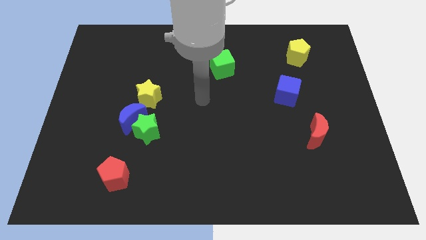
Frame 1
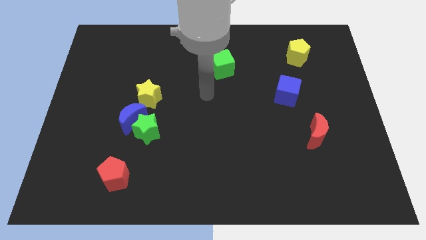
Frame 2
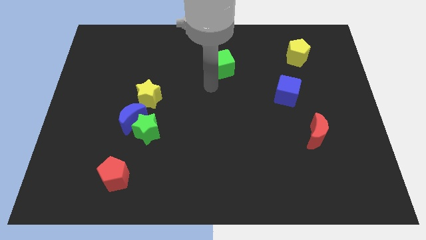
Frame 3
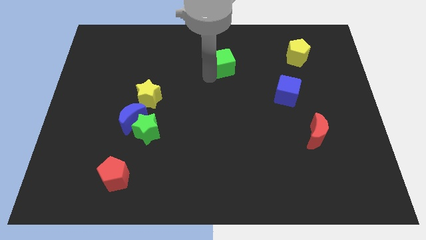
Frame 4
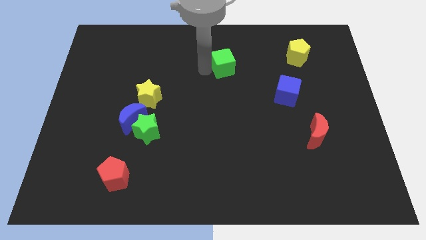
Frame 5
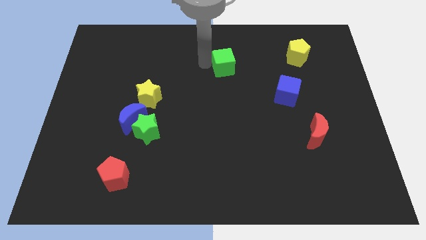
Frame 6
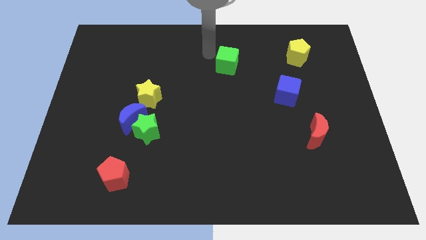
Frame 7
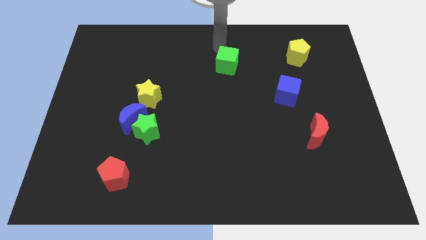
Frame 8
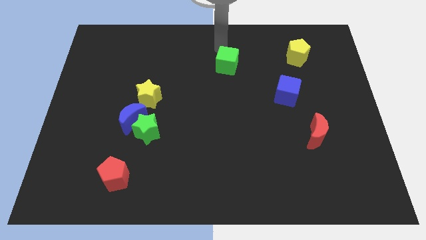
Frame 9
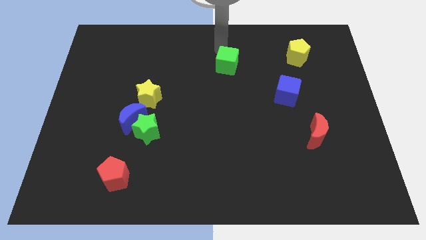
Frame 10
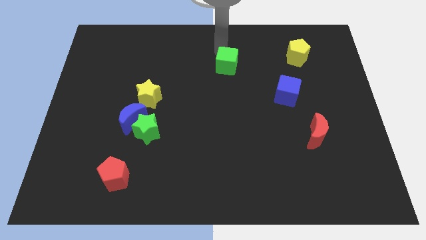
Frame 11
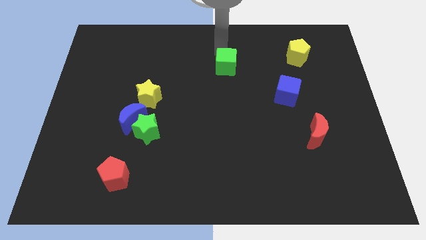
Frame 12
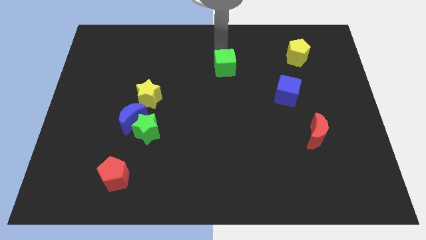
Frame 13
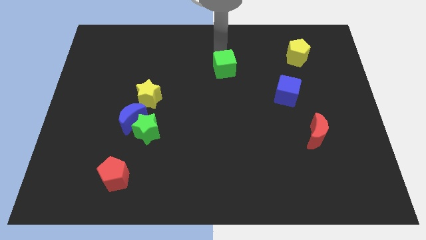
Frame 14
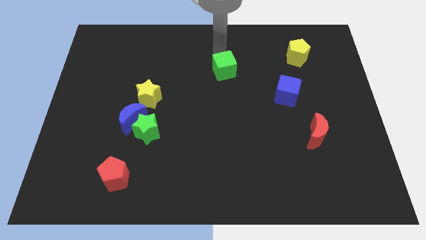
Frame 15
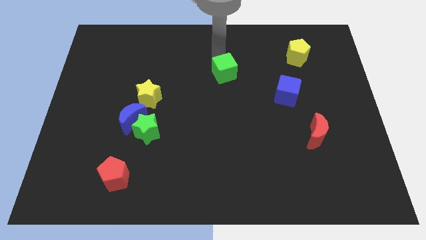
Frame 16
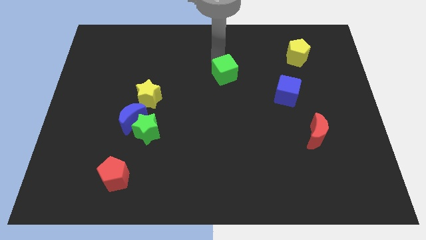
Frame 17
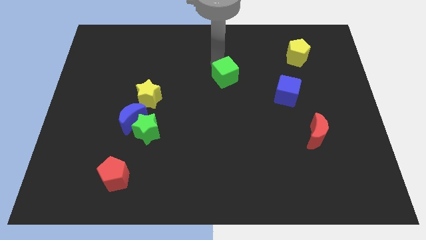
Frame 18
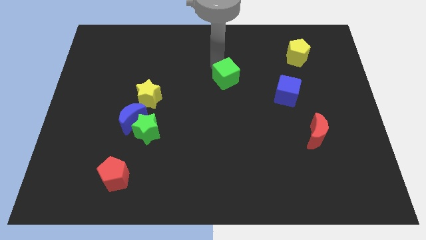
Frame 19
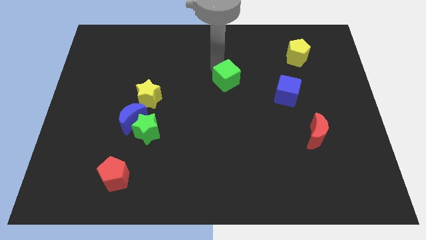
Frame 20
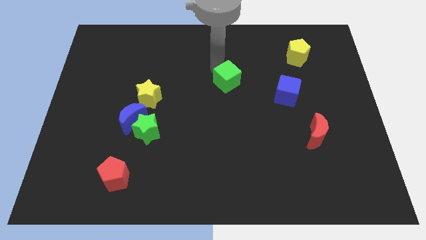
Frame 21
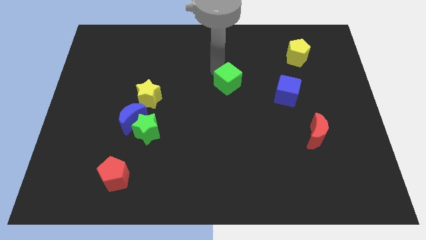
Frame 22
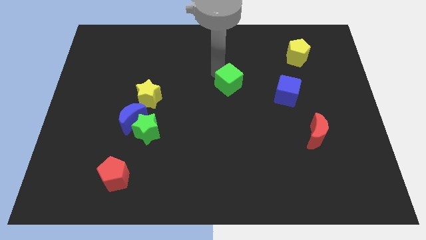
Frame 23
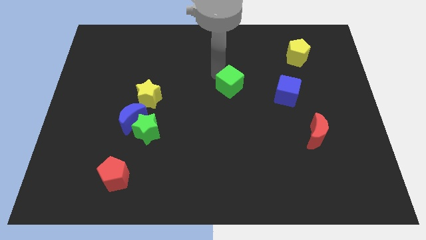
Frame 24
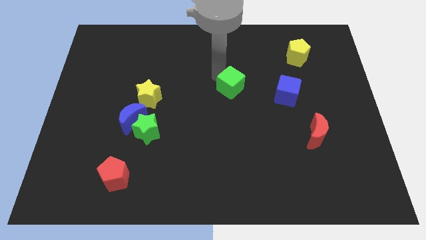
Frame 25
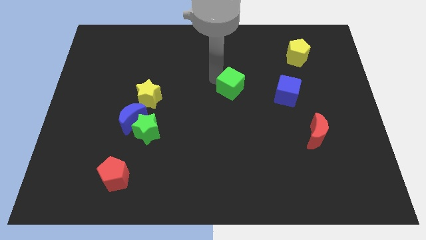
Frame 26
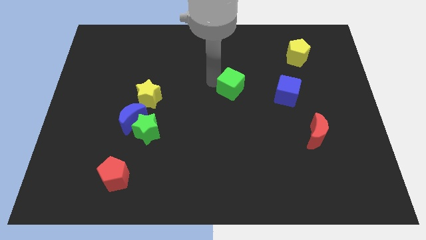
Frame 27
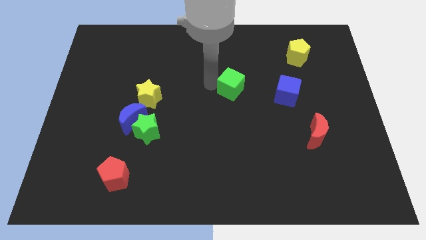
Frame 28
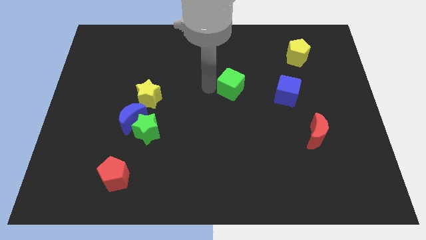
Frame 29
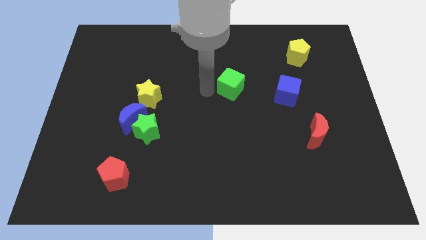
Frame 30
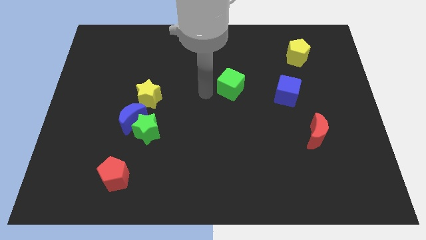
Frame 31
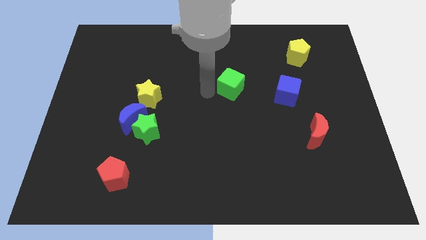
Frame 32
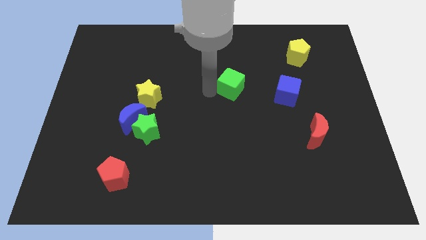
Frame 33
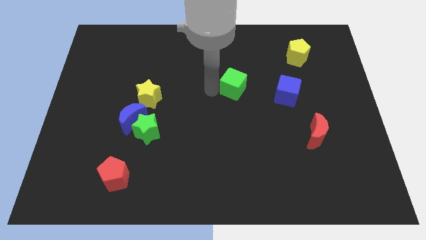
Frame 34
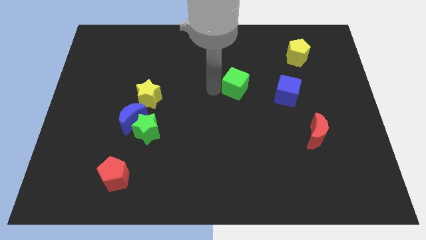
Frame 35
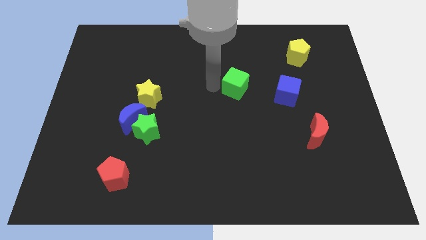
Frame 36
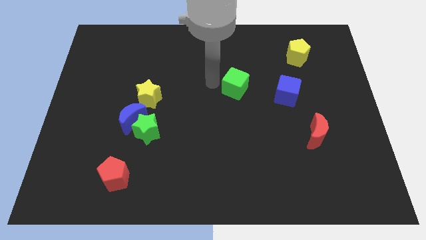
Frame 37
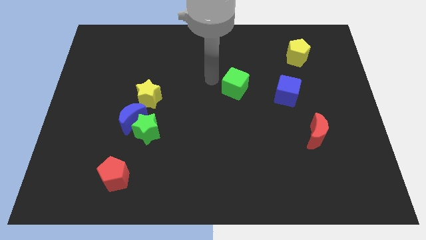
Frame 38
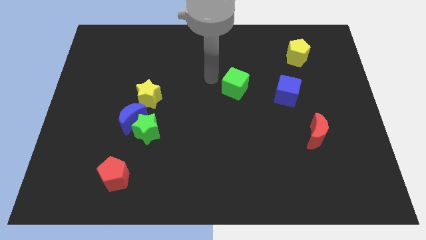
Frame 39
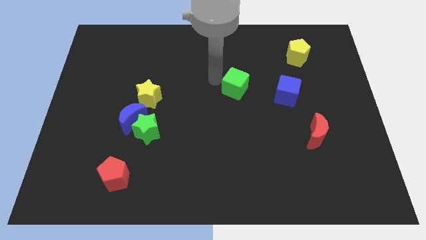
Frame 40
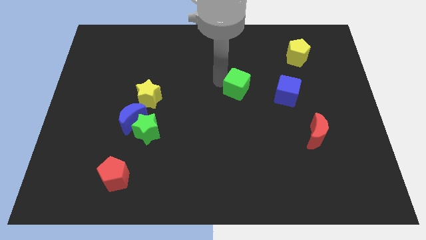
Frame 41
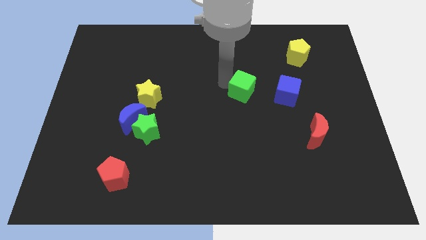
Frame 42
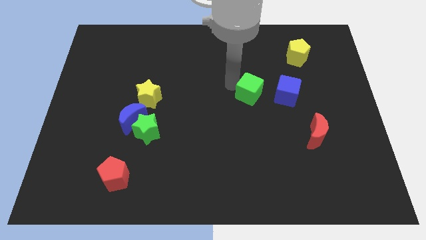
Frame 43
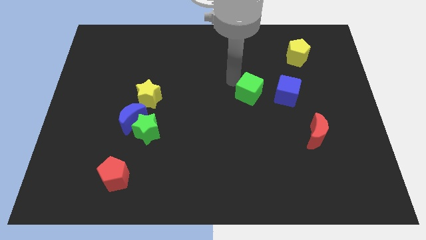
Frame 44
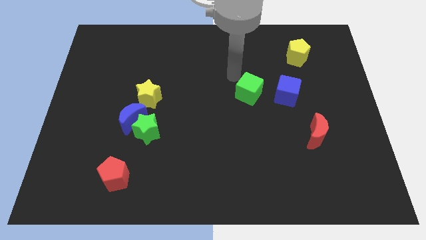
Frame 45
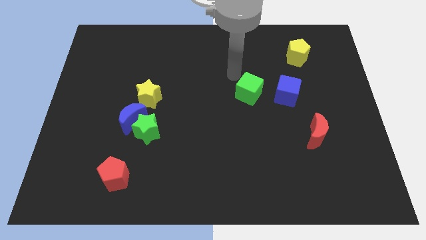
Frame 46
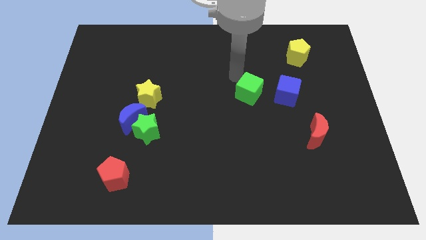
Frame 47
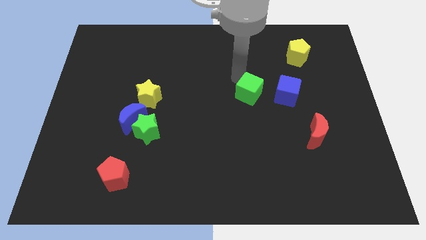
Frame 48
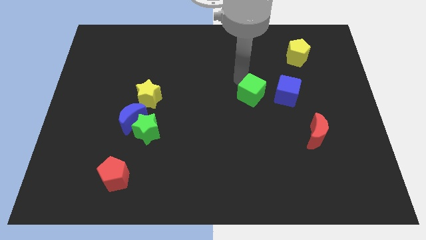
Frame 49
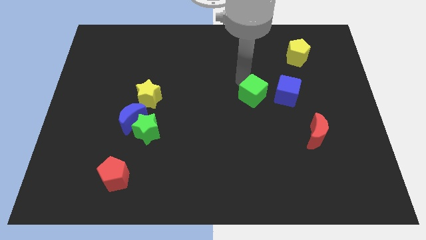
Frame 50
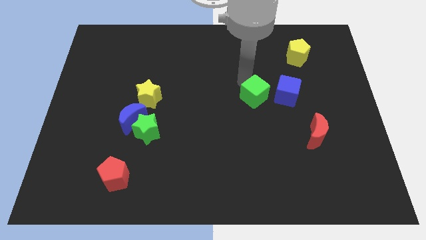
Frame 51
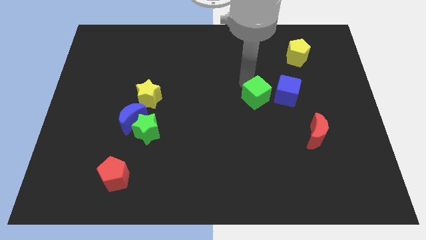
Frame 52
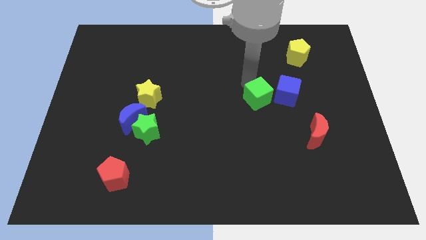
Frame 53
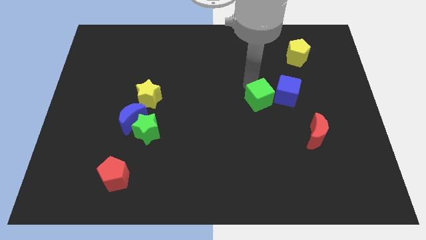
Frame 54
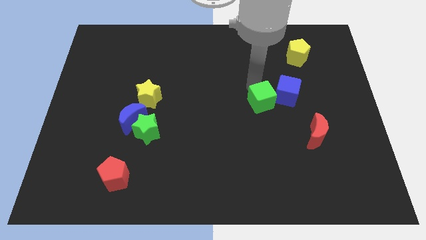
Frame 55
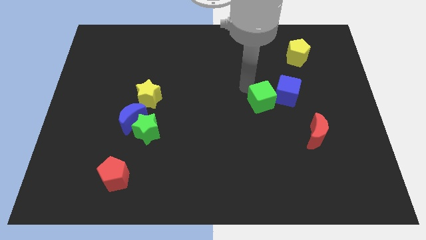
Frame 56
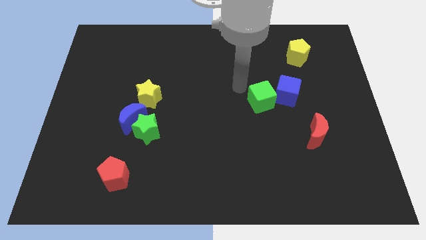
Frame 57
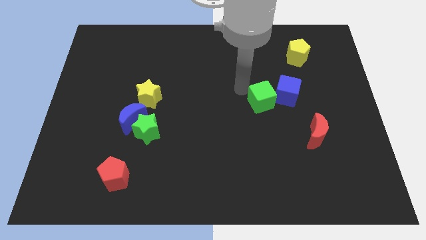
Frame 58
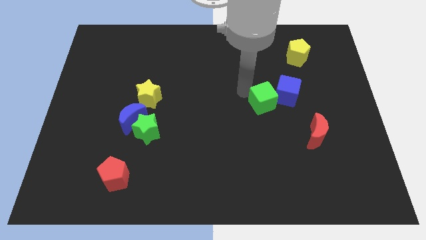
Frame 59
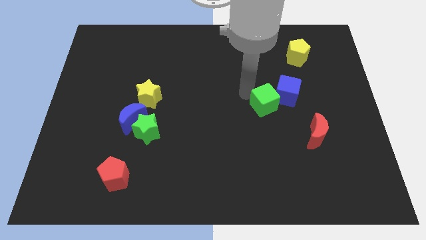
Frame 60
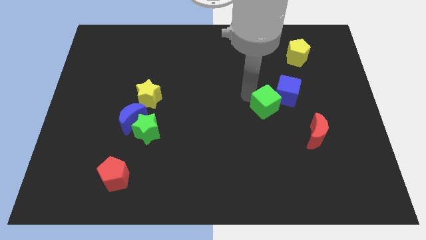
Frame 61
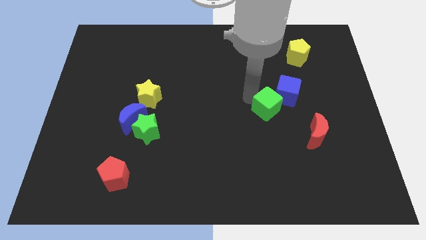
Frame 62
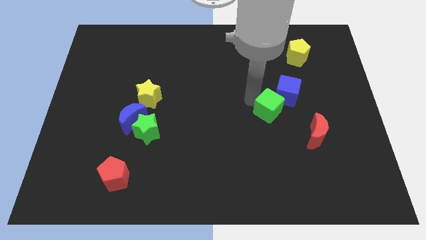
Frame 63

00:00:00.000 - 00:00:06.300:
slide the green cube diagonally up and to the left of the red moon
